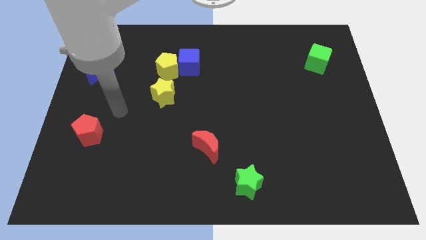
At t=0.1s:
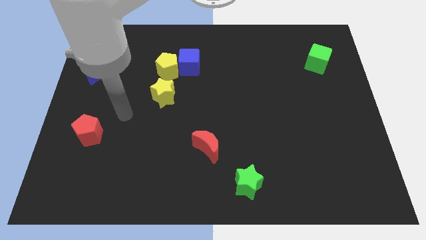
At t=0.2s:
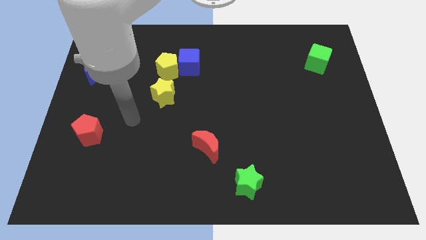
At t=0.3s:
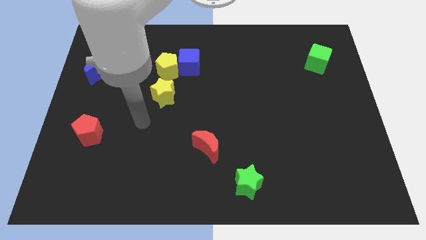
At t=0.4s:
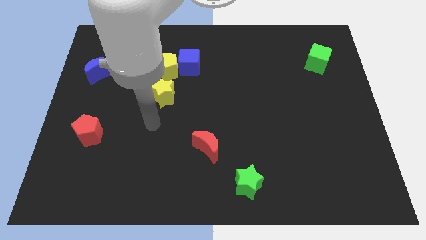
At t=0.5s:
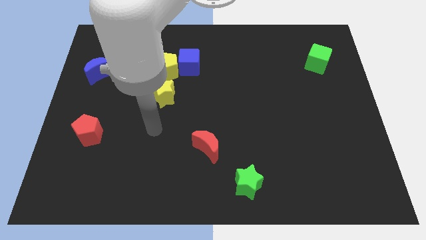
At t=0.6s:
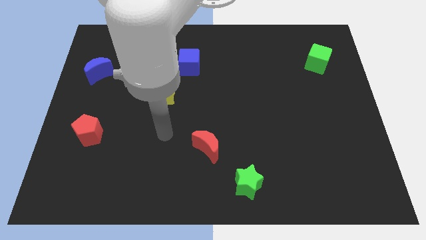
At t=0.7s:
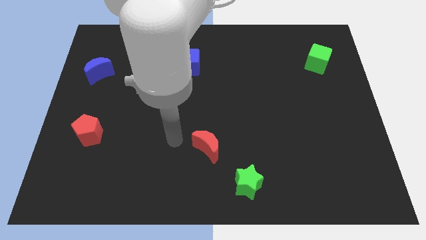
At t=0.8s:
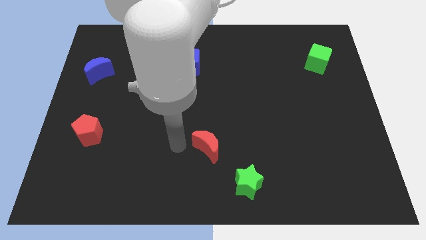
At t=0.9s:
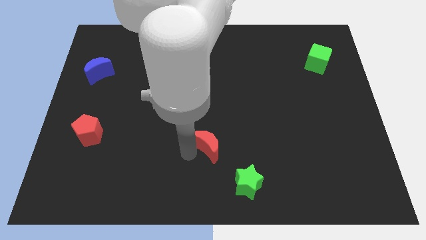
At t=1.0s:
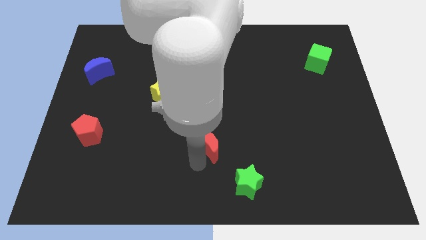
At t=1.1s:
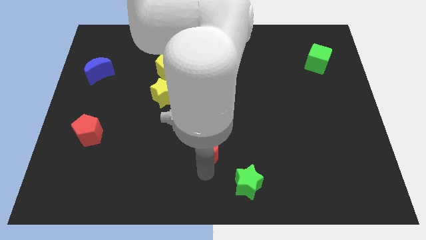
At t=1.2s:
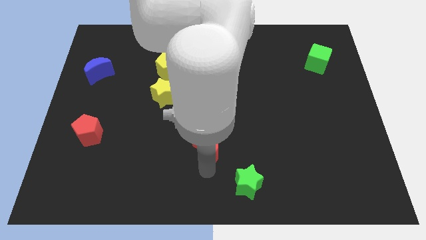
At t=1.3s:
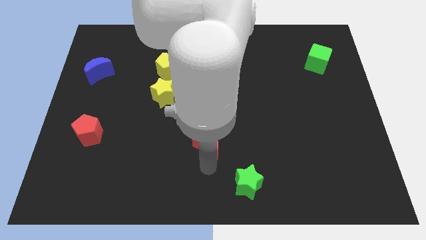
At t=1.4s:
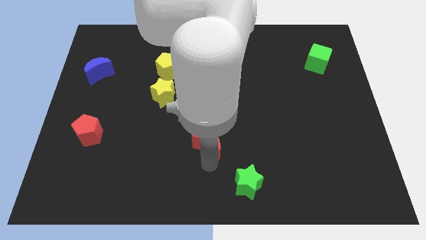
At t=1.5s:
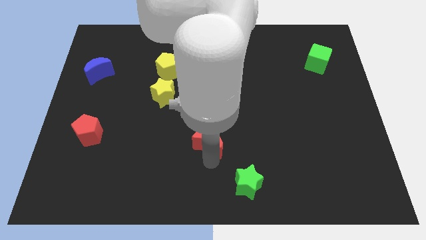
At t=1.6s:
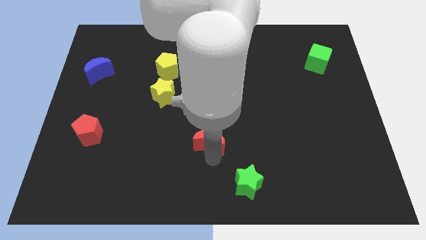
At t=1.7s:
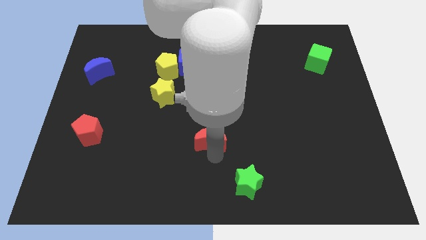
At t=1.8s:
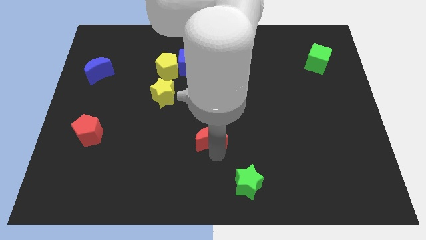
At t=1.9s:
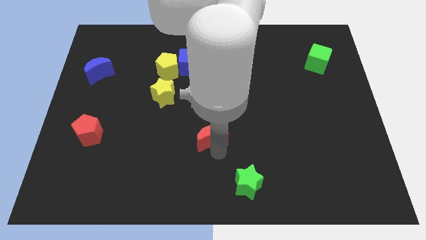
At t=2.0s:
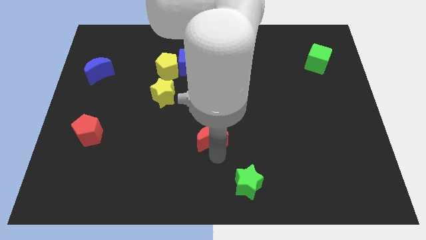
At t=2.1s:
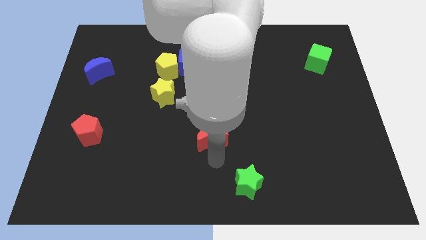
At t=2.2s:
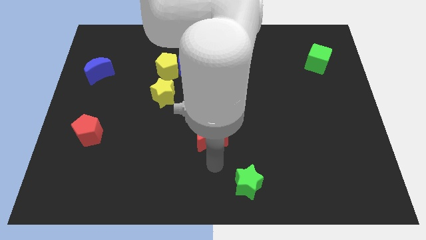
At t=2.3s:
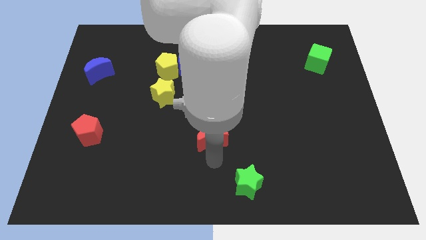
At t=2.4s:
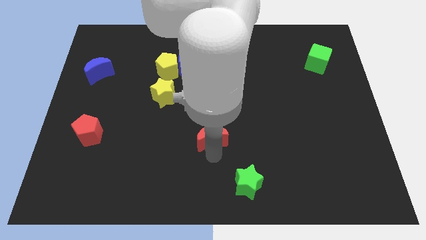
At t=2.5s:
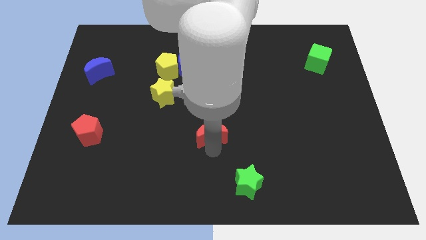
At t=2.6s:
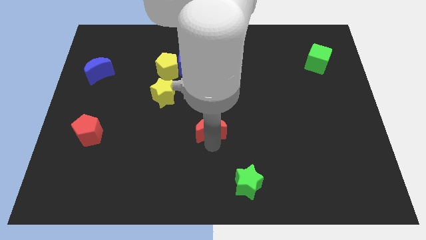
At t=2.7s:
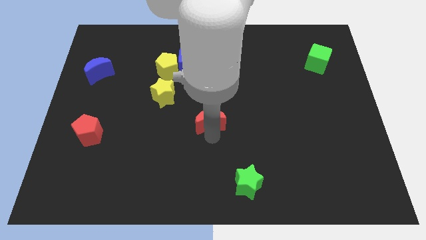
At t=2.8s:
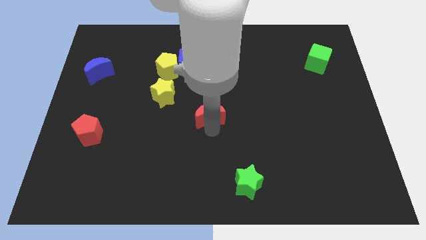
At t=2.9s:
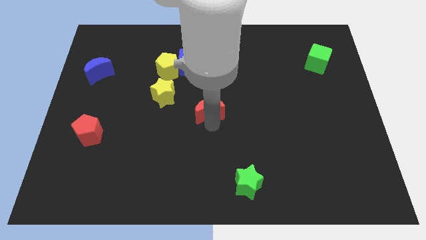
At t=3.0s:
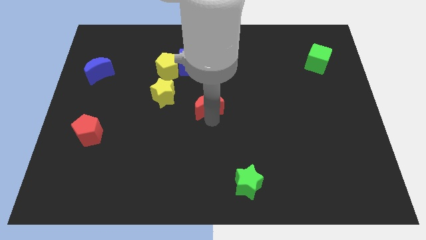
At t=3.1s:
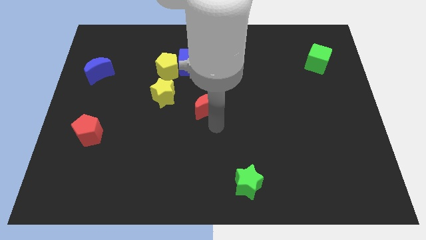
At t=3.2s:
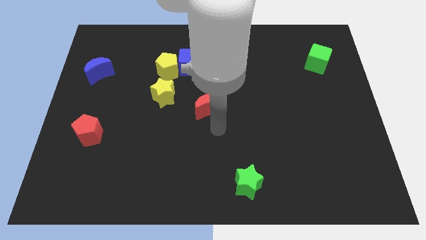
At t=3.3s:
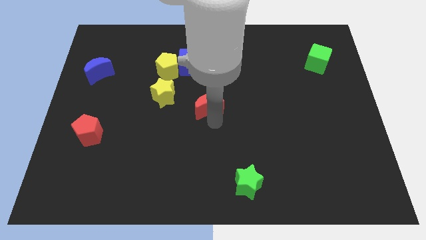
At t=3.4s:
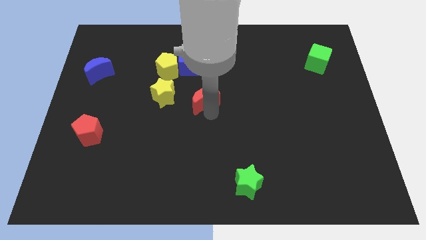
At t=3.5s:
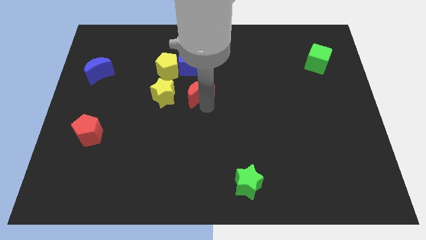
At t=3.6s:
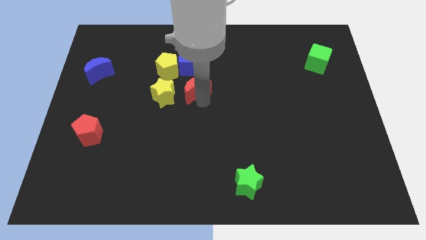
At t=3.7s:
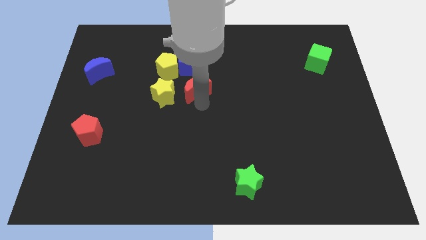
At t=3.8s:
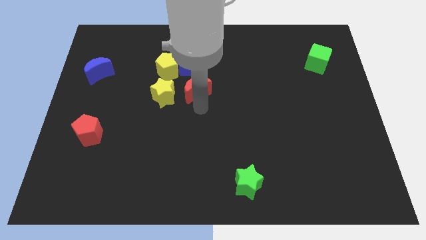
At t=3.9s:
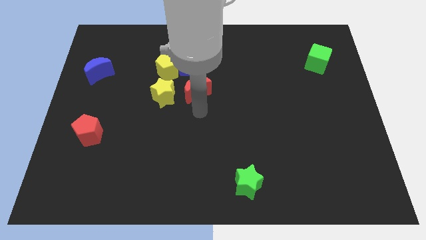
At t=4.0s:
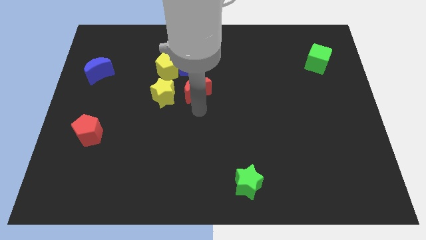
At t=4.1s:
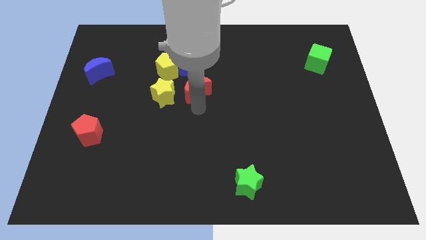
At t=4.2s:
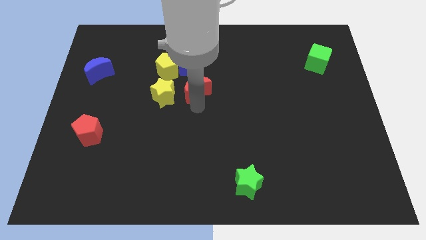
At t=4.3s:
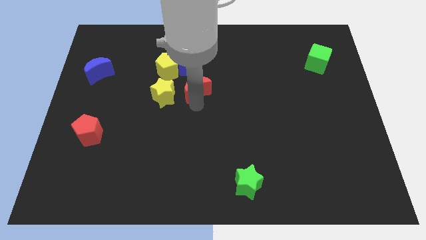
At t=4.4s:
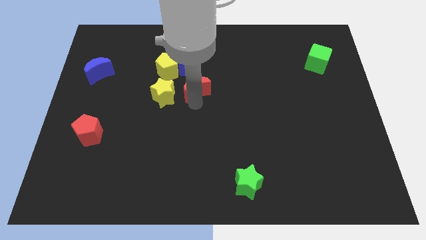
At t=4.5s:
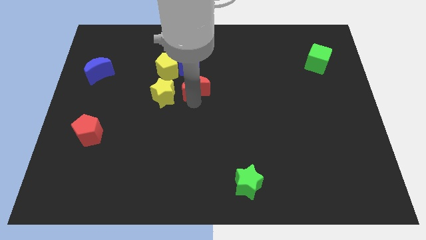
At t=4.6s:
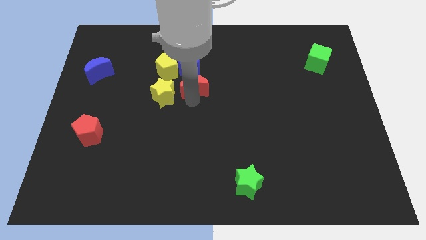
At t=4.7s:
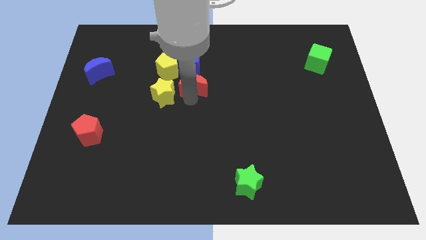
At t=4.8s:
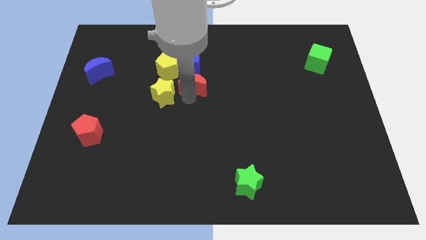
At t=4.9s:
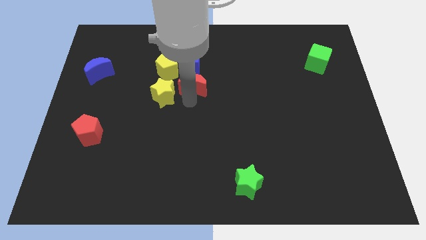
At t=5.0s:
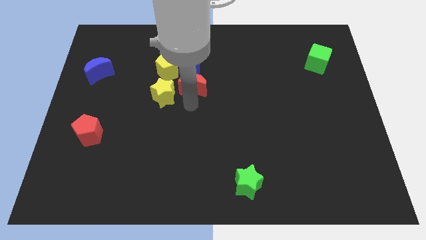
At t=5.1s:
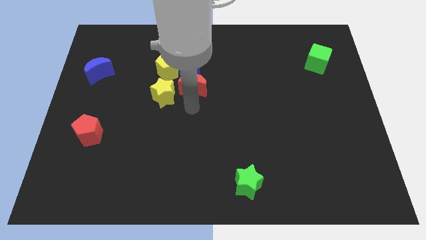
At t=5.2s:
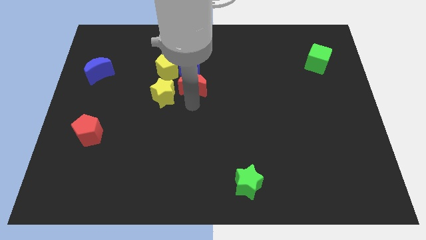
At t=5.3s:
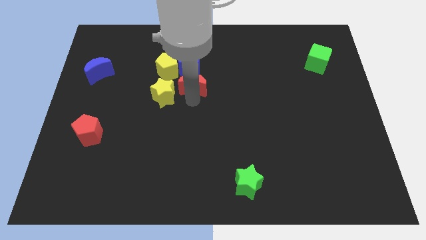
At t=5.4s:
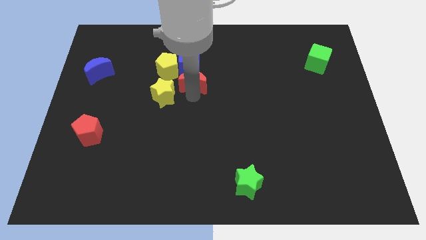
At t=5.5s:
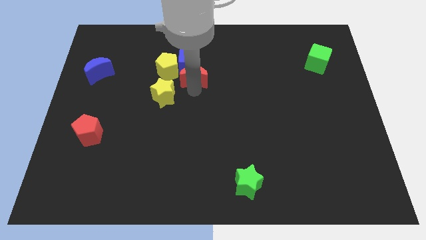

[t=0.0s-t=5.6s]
move the red moon next to the blue cube

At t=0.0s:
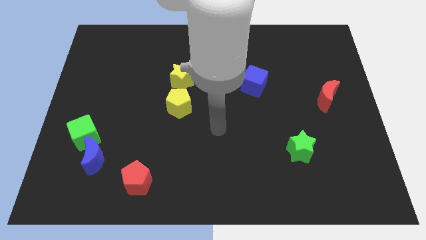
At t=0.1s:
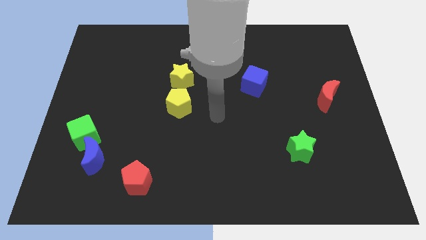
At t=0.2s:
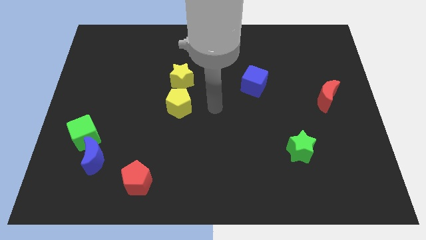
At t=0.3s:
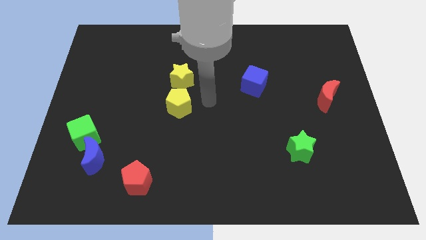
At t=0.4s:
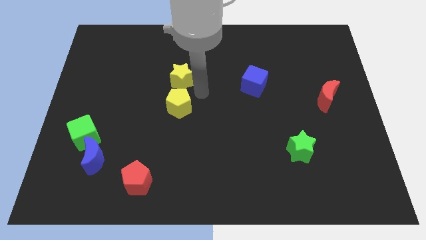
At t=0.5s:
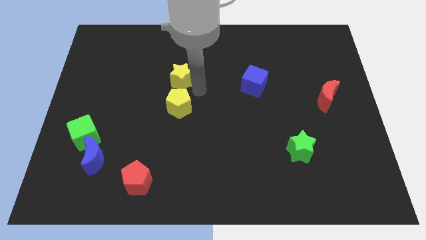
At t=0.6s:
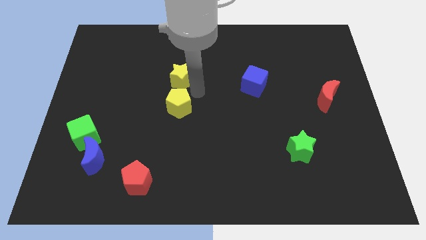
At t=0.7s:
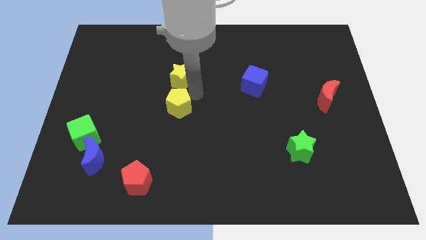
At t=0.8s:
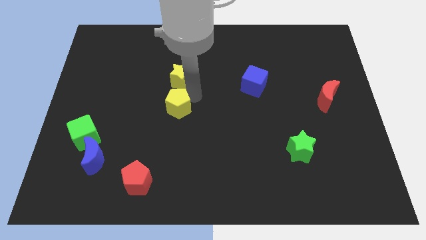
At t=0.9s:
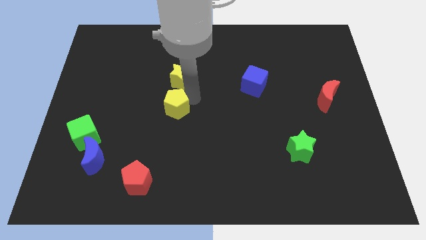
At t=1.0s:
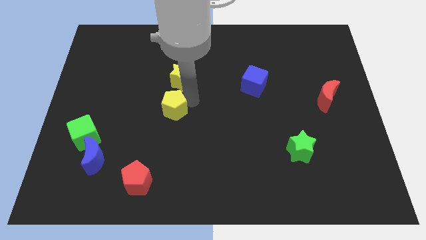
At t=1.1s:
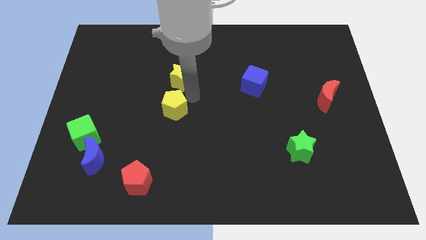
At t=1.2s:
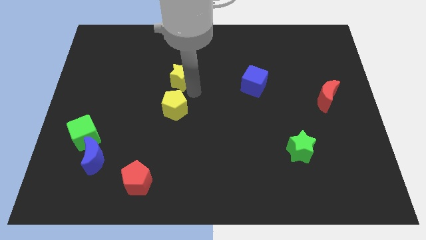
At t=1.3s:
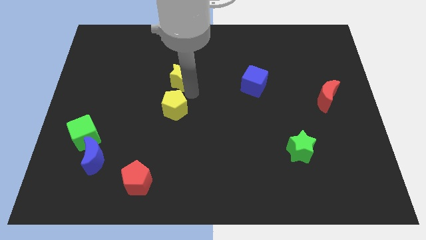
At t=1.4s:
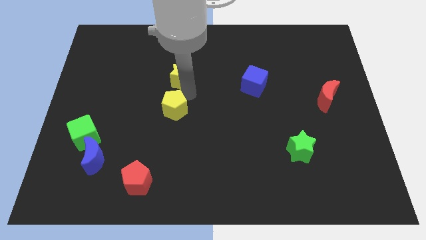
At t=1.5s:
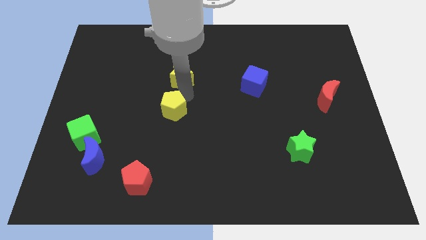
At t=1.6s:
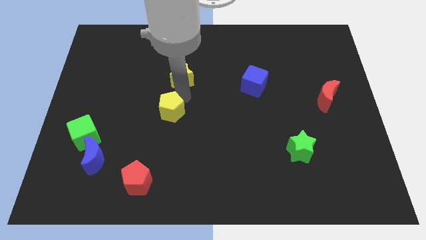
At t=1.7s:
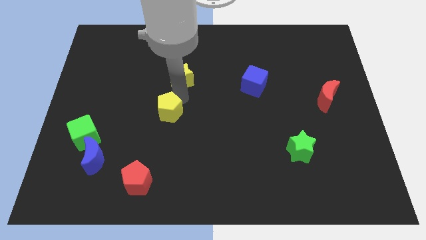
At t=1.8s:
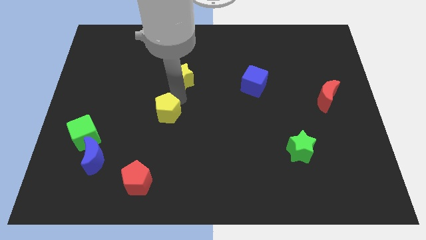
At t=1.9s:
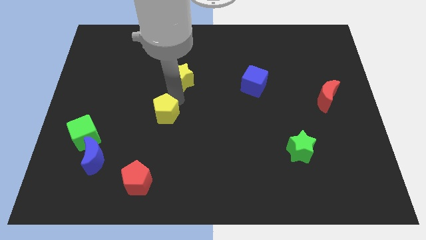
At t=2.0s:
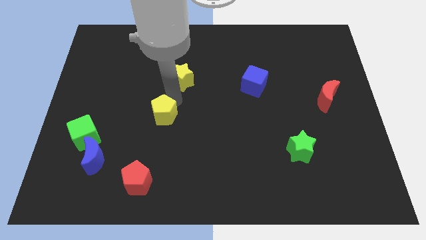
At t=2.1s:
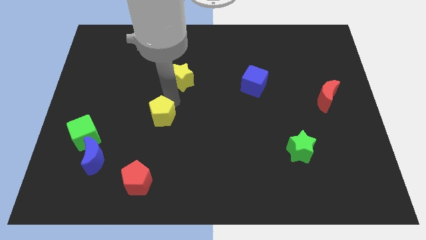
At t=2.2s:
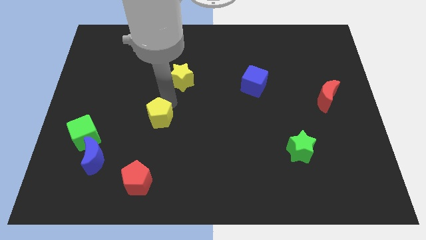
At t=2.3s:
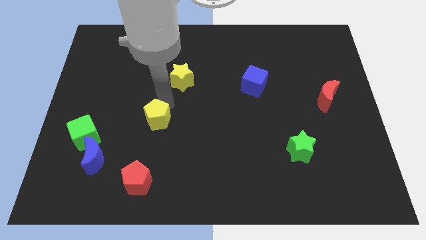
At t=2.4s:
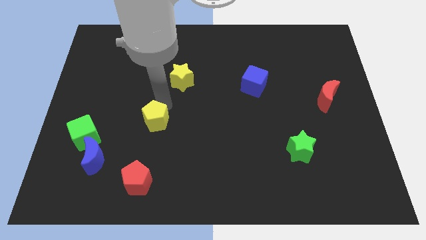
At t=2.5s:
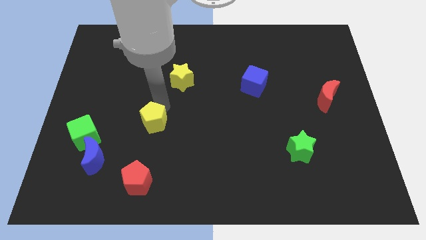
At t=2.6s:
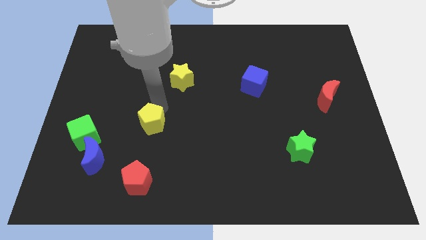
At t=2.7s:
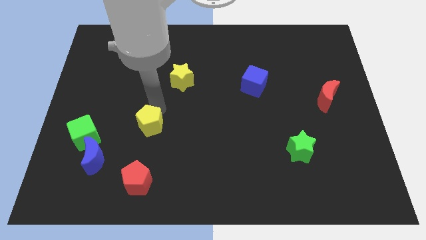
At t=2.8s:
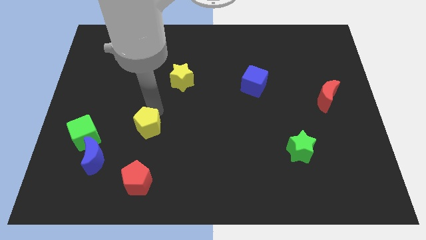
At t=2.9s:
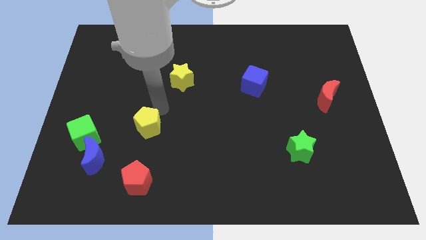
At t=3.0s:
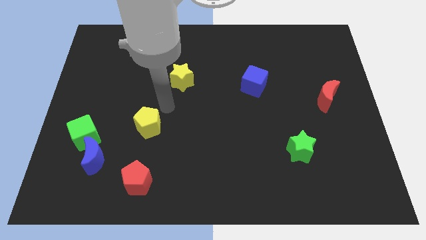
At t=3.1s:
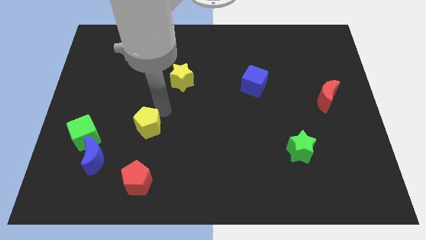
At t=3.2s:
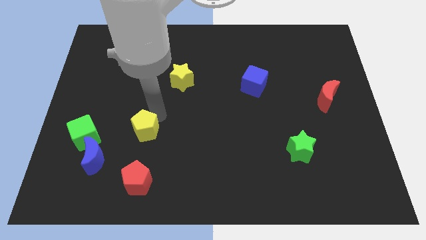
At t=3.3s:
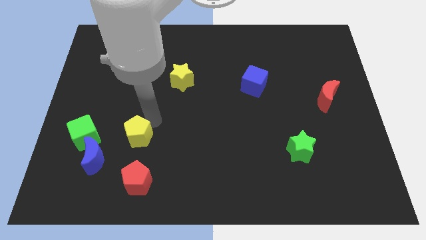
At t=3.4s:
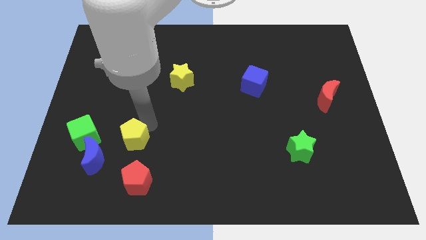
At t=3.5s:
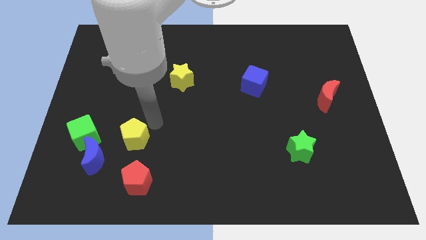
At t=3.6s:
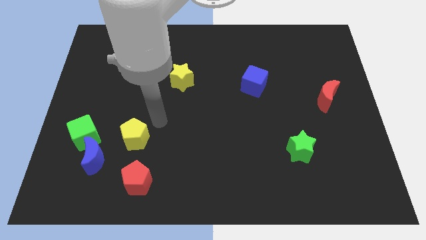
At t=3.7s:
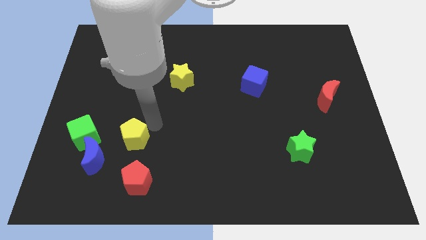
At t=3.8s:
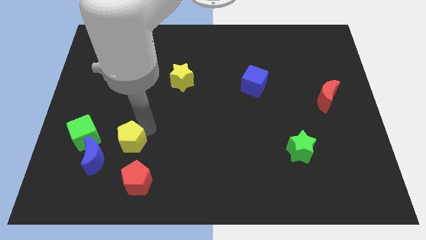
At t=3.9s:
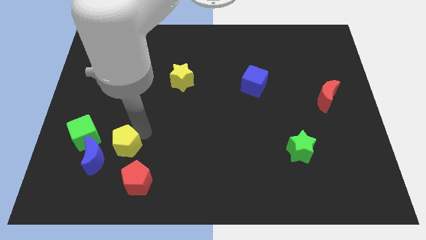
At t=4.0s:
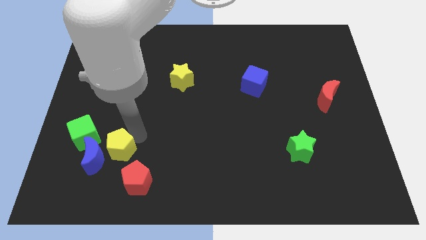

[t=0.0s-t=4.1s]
move the yellow pentagon towards the blue moon
